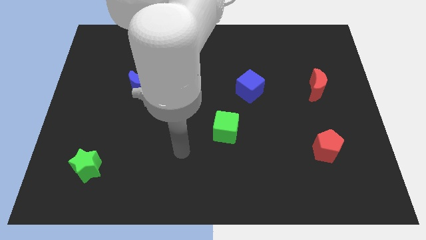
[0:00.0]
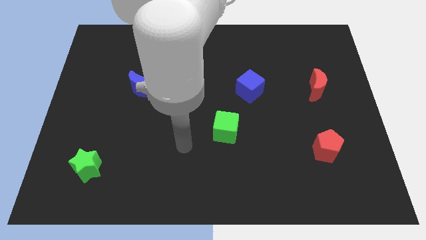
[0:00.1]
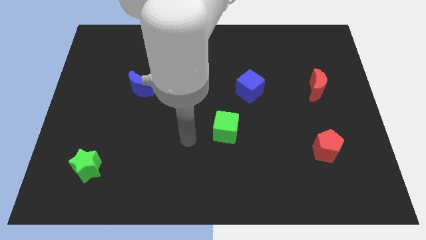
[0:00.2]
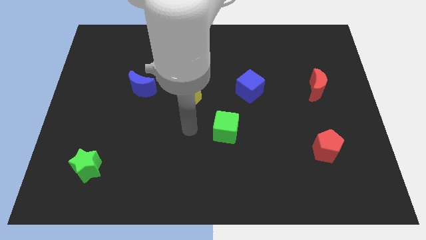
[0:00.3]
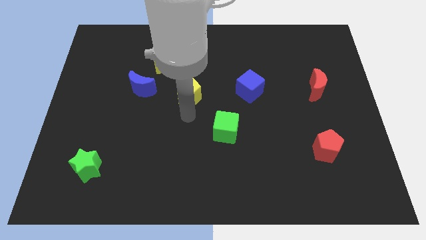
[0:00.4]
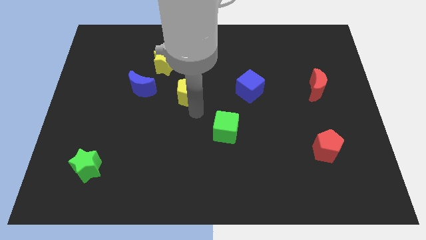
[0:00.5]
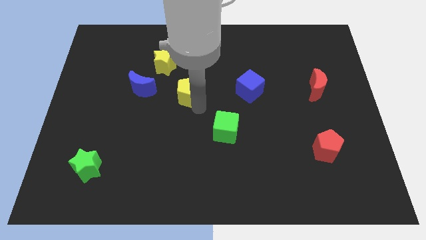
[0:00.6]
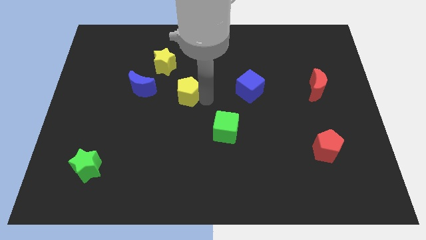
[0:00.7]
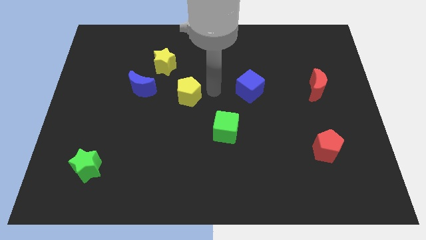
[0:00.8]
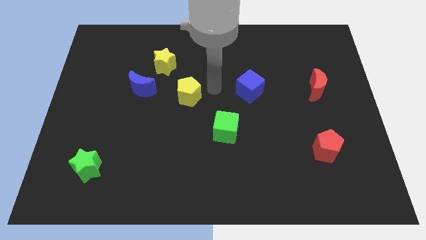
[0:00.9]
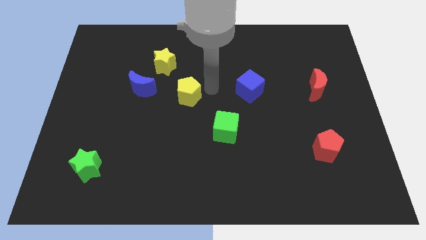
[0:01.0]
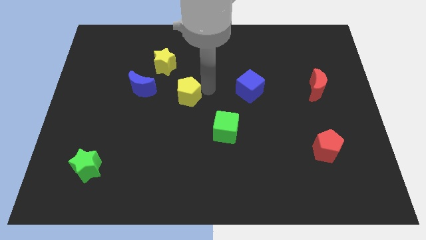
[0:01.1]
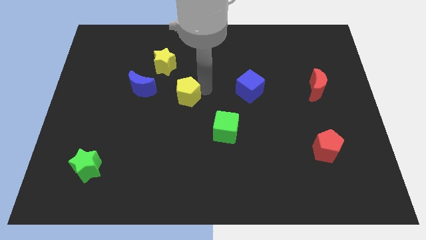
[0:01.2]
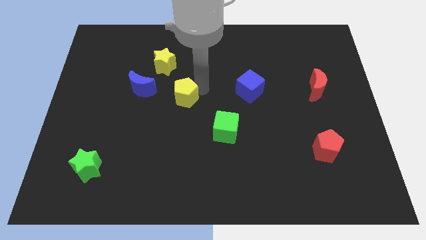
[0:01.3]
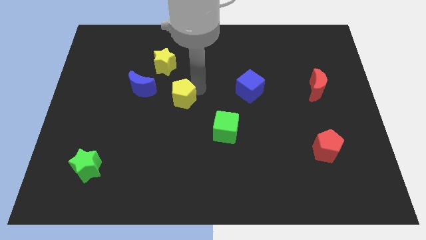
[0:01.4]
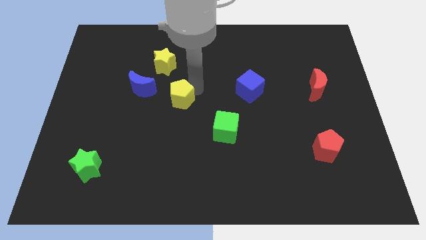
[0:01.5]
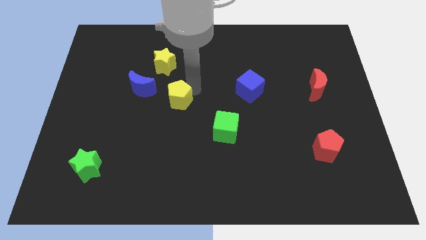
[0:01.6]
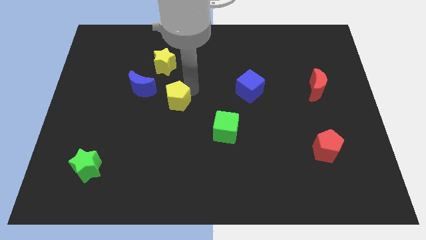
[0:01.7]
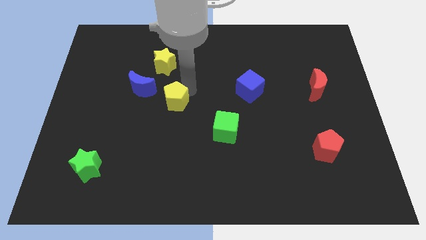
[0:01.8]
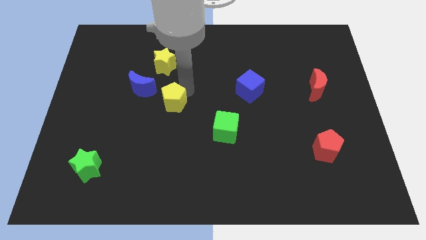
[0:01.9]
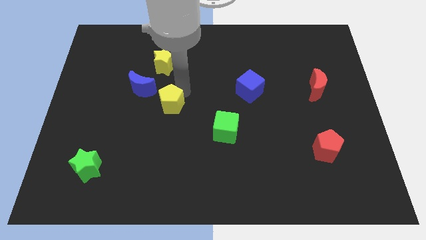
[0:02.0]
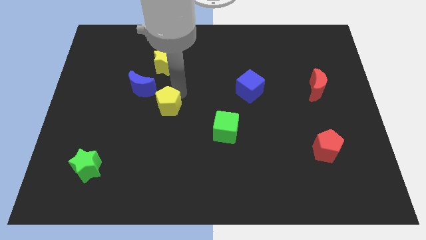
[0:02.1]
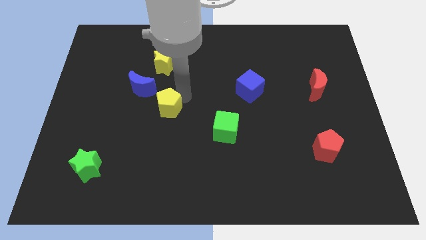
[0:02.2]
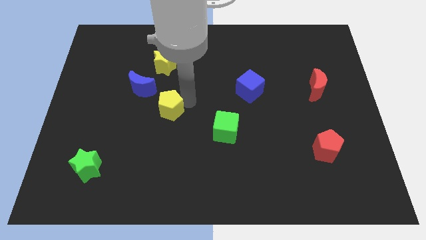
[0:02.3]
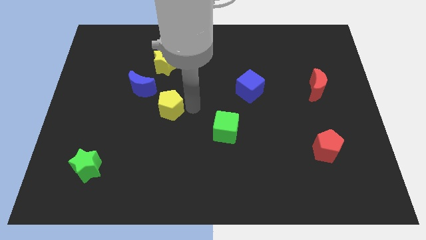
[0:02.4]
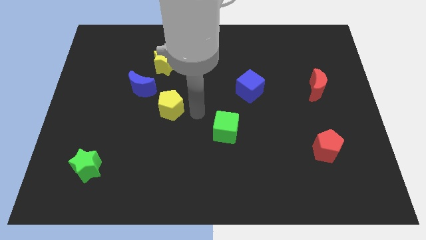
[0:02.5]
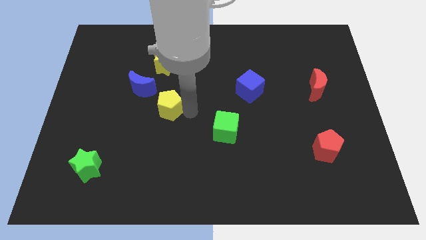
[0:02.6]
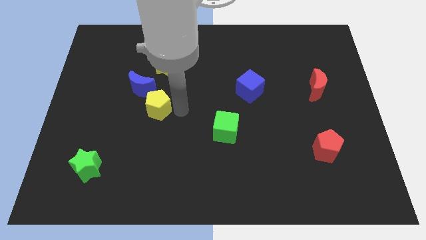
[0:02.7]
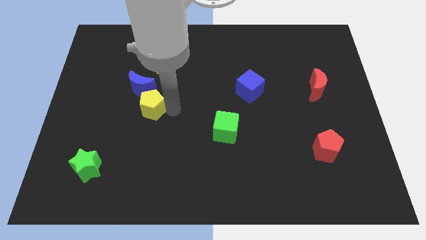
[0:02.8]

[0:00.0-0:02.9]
move the yellow pentagon left a bit

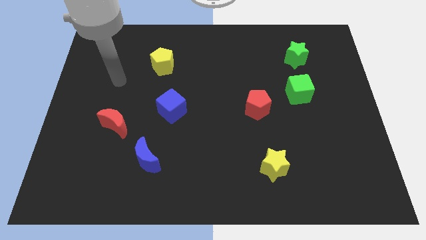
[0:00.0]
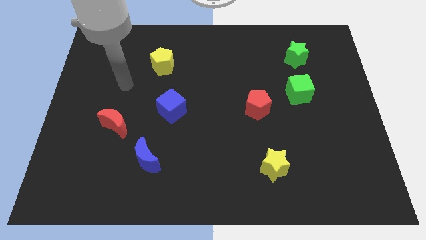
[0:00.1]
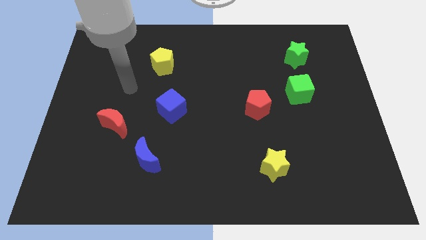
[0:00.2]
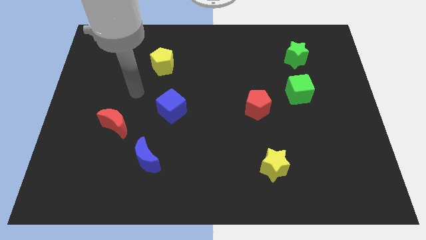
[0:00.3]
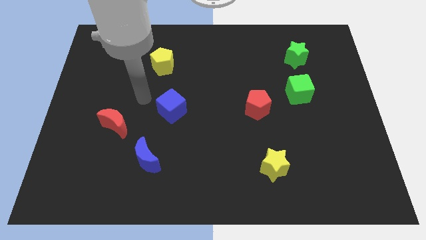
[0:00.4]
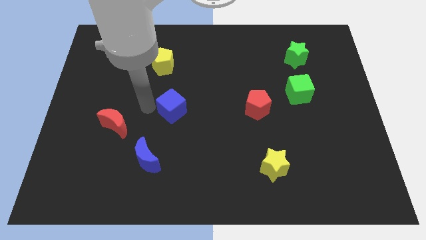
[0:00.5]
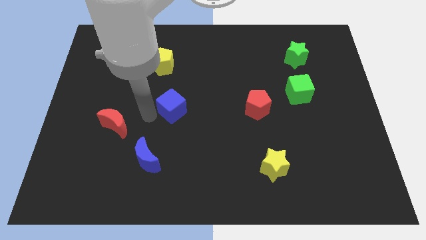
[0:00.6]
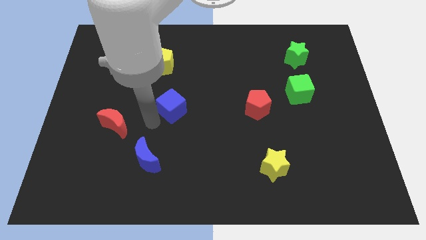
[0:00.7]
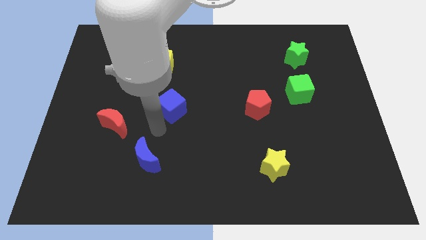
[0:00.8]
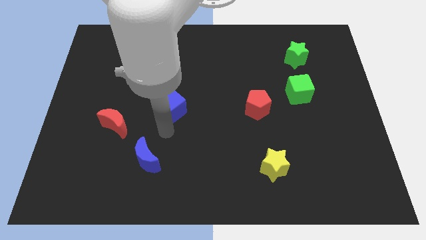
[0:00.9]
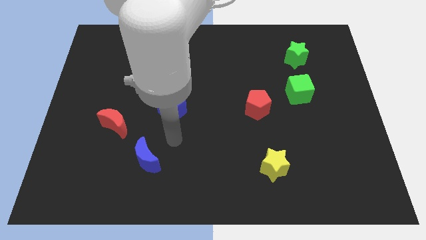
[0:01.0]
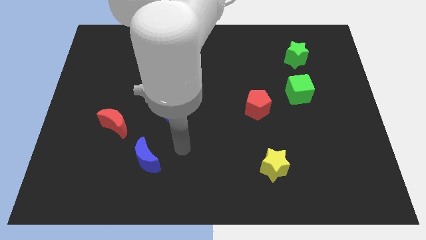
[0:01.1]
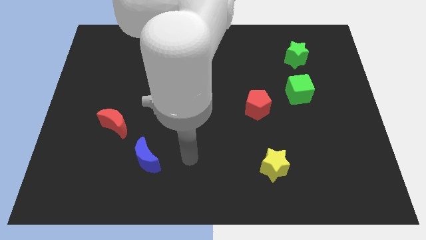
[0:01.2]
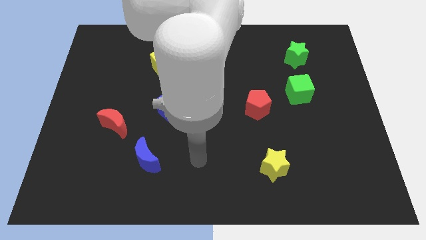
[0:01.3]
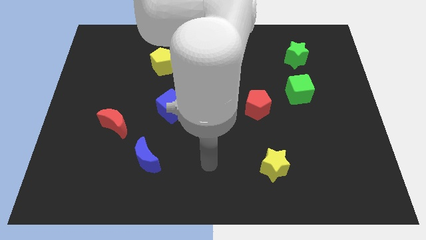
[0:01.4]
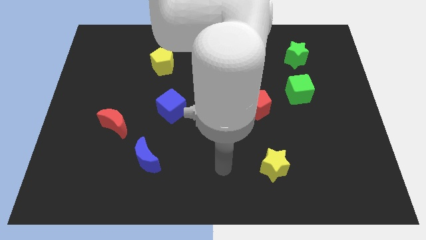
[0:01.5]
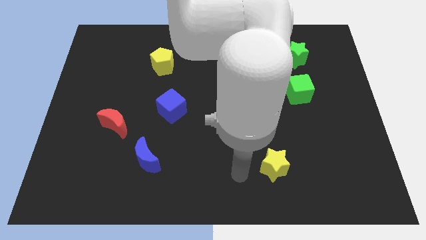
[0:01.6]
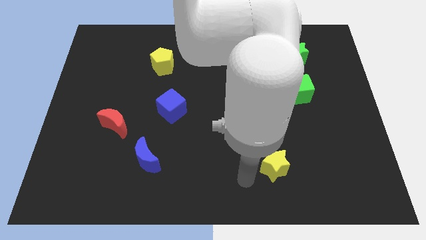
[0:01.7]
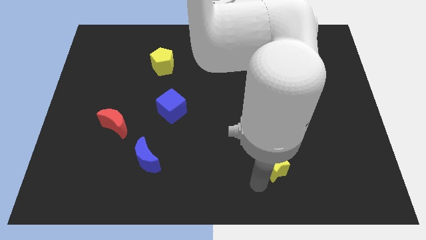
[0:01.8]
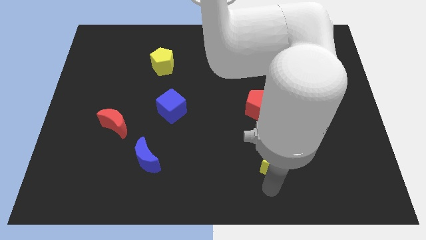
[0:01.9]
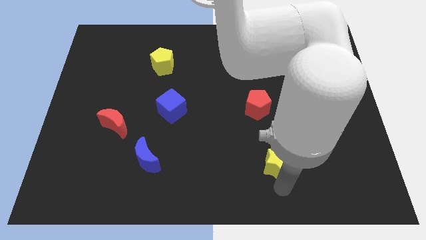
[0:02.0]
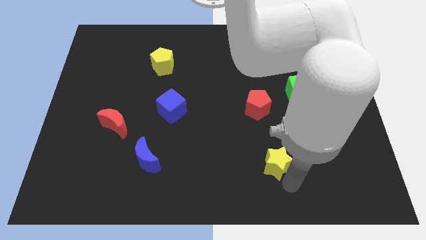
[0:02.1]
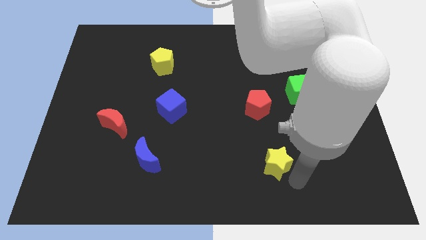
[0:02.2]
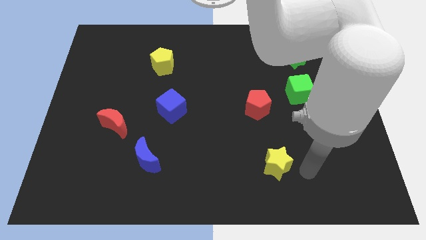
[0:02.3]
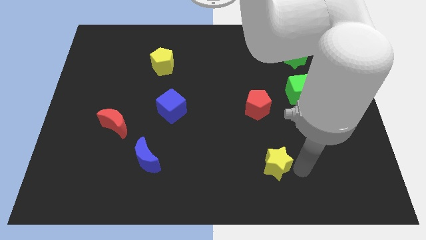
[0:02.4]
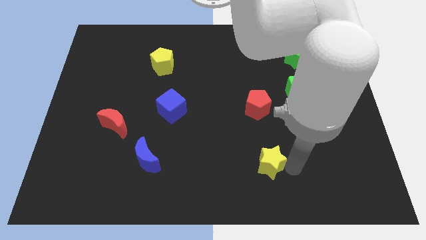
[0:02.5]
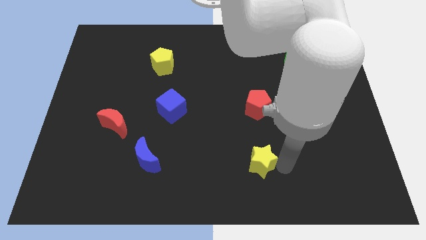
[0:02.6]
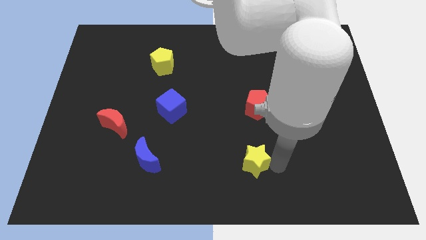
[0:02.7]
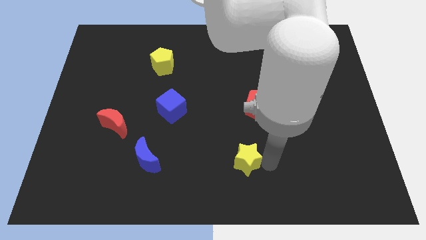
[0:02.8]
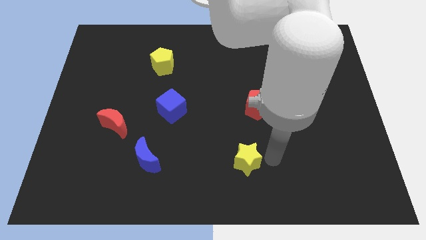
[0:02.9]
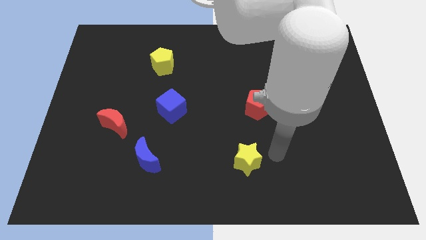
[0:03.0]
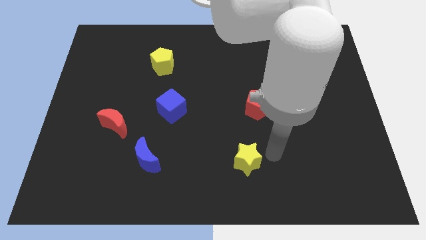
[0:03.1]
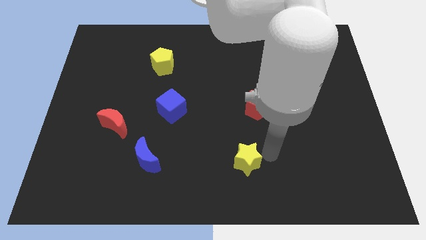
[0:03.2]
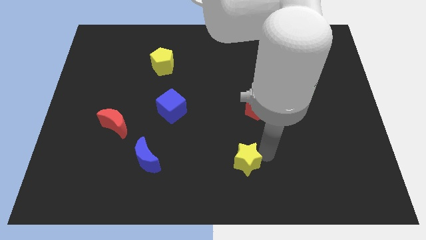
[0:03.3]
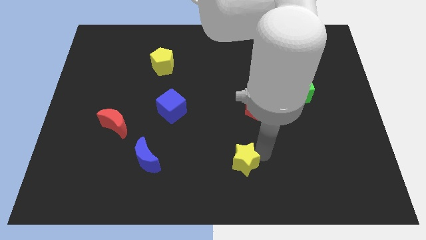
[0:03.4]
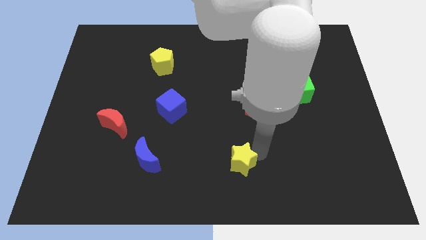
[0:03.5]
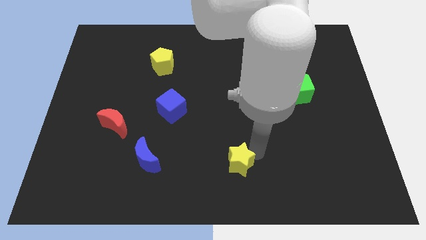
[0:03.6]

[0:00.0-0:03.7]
slightly slide the yellow star left

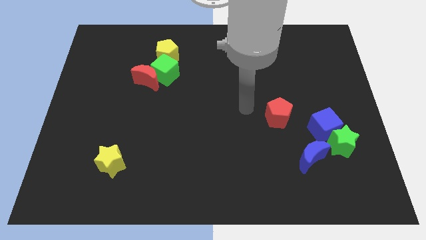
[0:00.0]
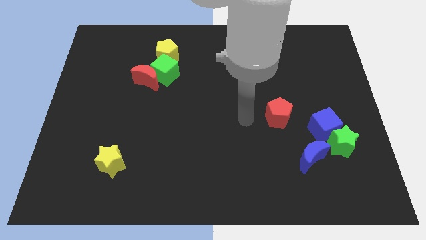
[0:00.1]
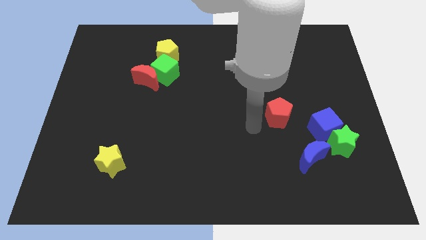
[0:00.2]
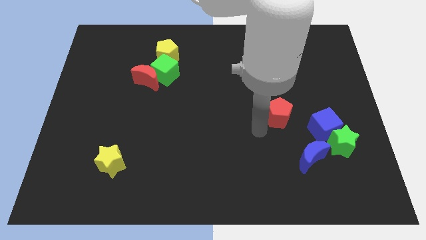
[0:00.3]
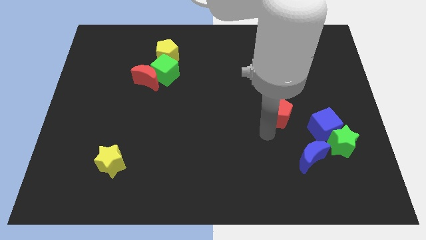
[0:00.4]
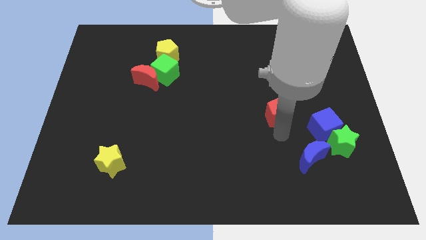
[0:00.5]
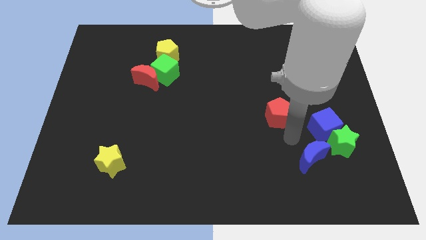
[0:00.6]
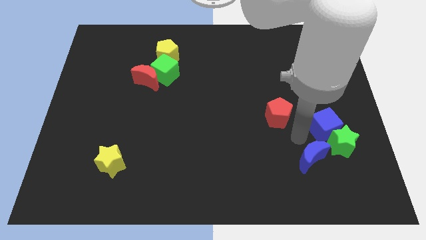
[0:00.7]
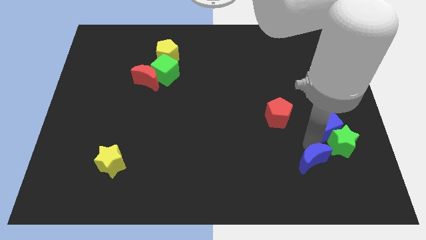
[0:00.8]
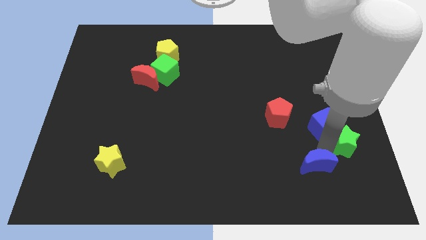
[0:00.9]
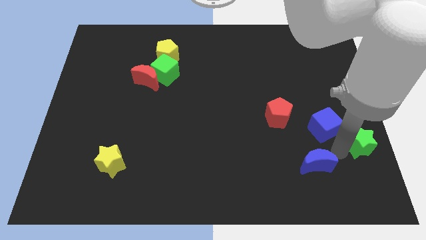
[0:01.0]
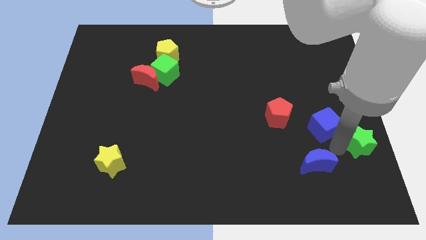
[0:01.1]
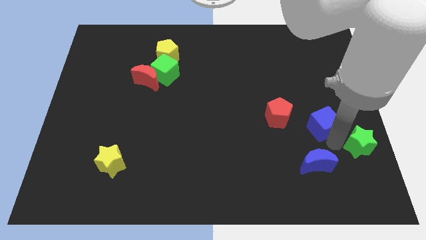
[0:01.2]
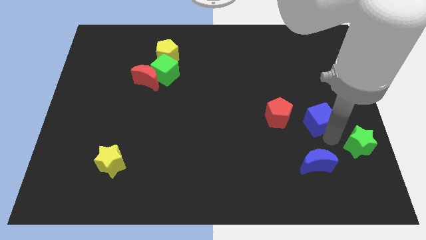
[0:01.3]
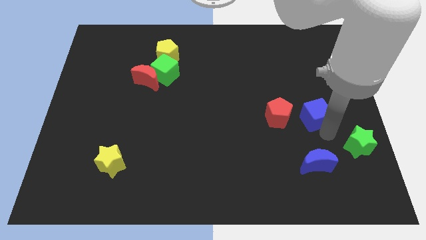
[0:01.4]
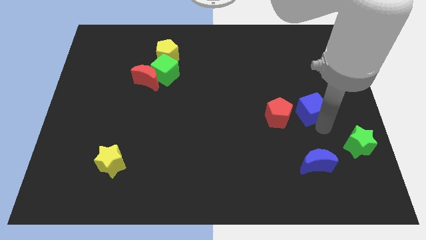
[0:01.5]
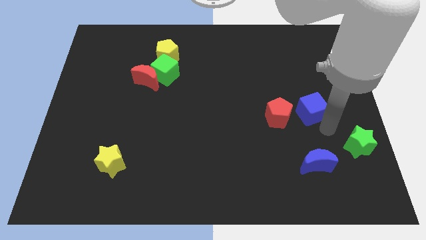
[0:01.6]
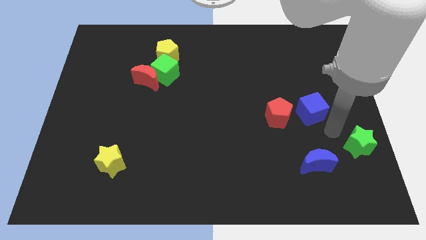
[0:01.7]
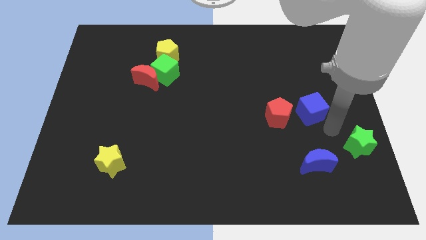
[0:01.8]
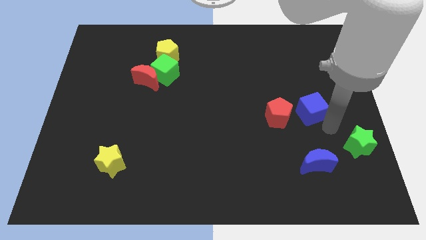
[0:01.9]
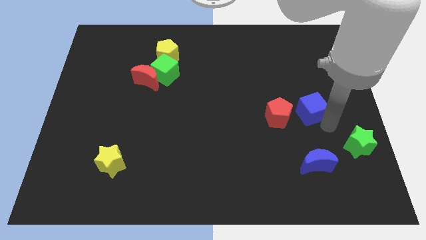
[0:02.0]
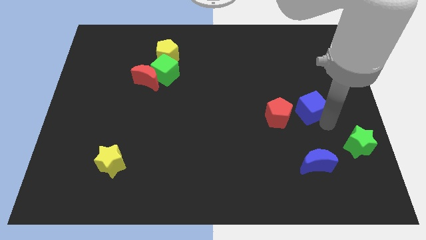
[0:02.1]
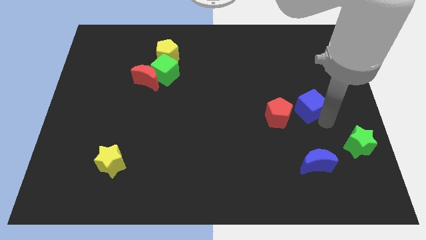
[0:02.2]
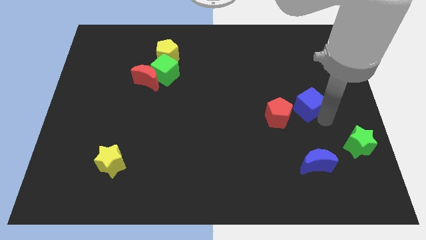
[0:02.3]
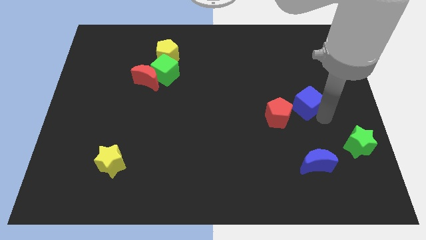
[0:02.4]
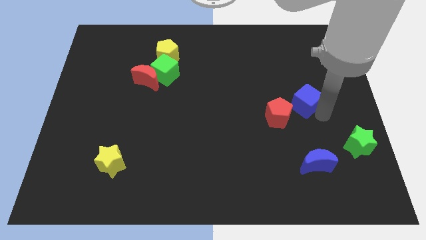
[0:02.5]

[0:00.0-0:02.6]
slide the blue cube somewhat up and left diagonally
